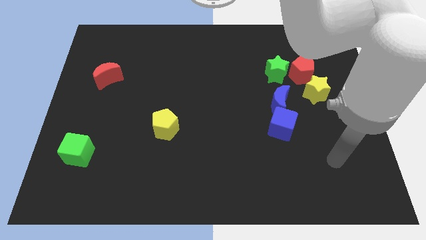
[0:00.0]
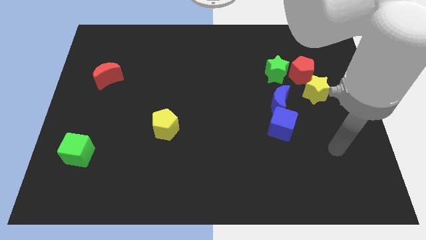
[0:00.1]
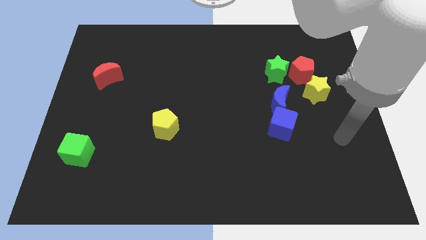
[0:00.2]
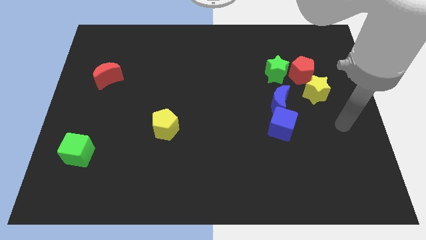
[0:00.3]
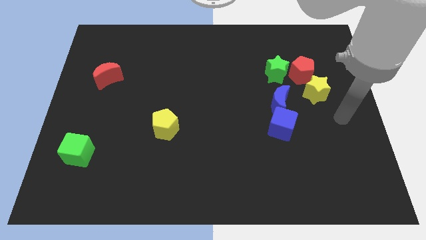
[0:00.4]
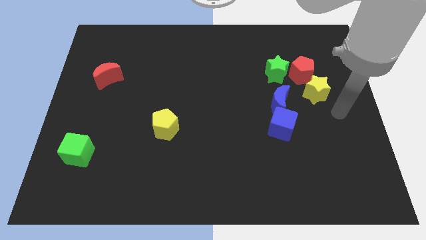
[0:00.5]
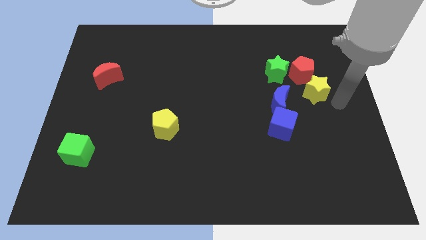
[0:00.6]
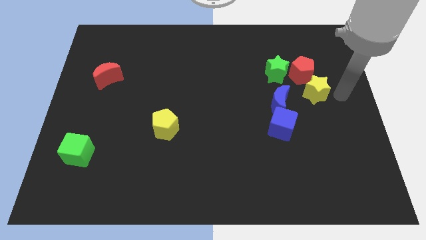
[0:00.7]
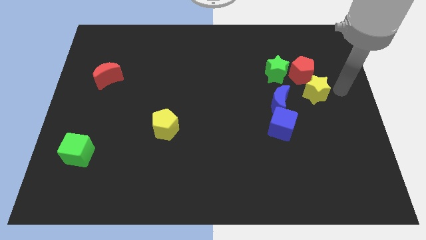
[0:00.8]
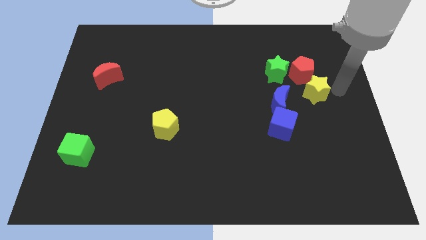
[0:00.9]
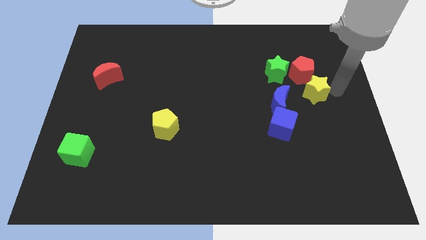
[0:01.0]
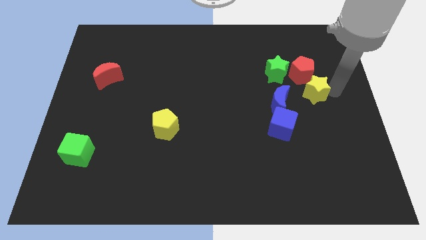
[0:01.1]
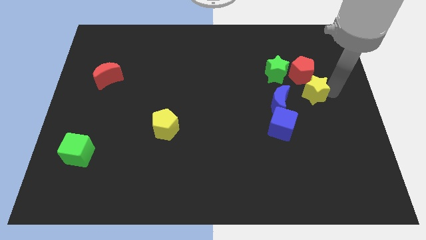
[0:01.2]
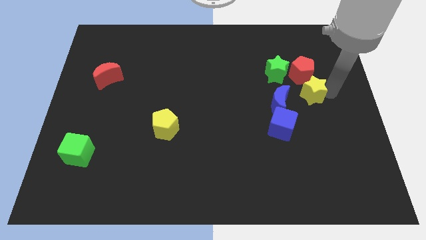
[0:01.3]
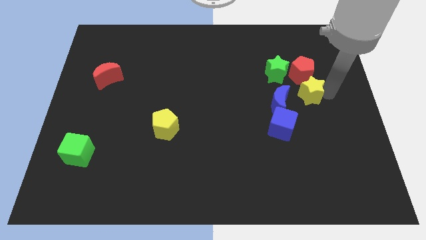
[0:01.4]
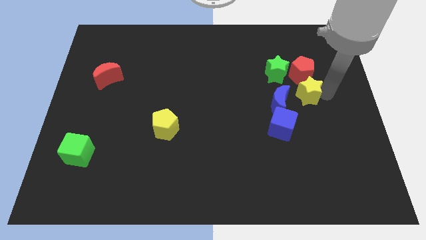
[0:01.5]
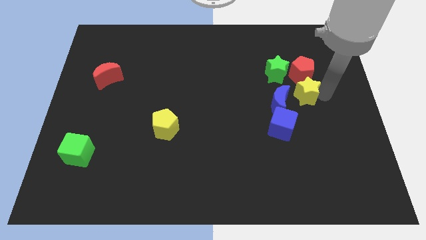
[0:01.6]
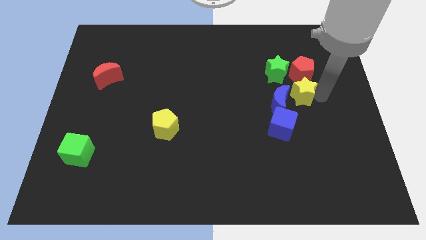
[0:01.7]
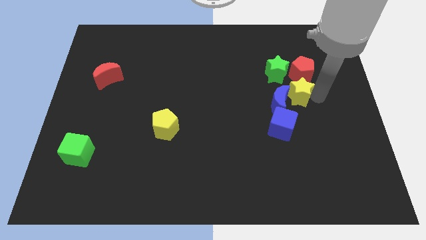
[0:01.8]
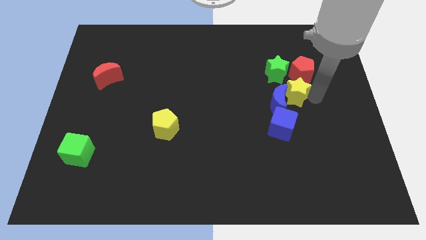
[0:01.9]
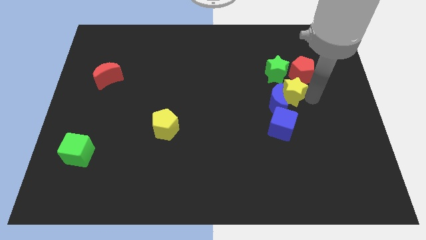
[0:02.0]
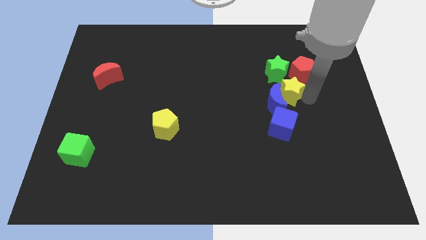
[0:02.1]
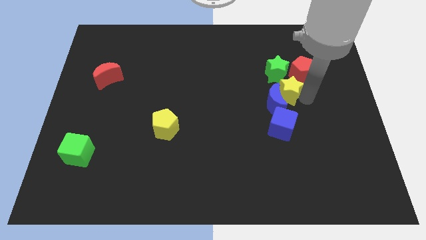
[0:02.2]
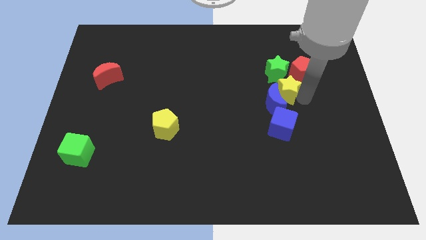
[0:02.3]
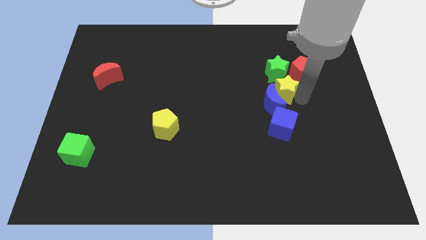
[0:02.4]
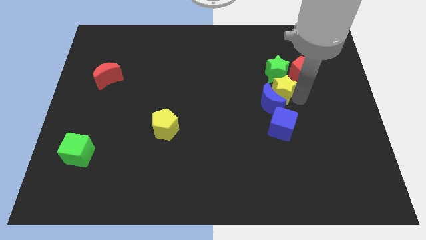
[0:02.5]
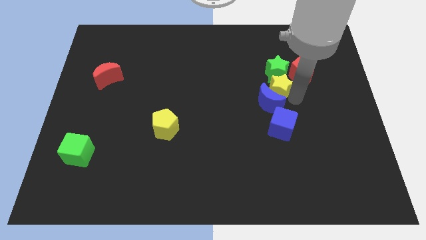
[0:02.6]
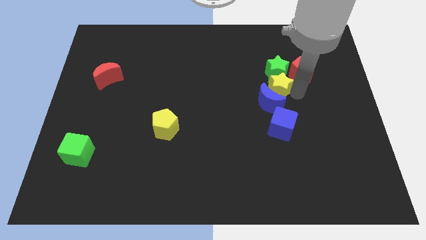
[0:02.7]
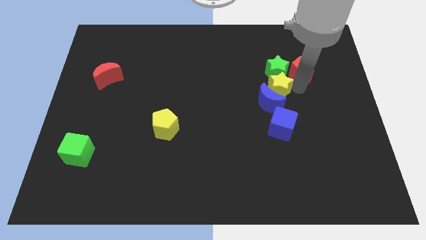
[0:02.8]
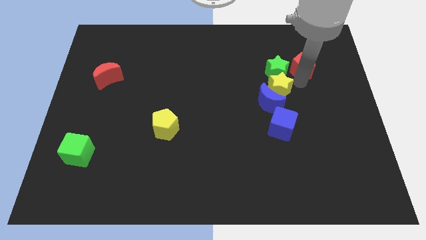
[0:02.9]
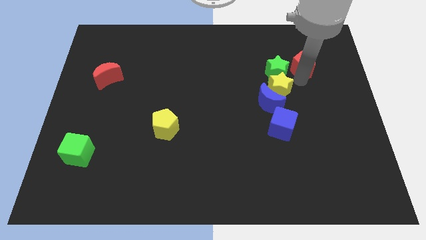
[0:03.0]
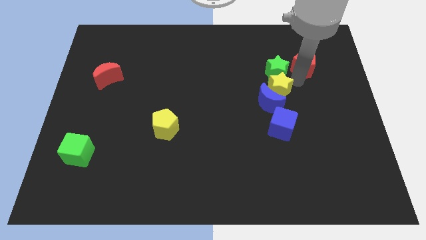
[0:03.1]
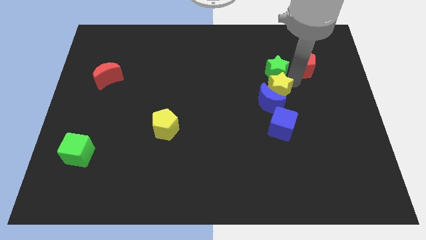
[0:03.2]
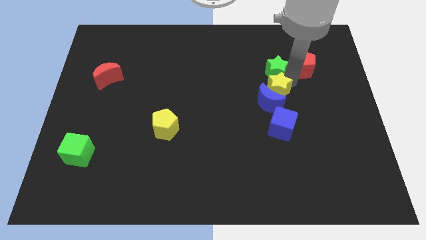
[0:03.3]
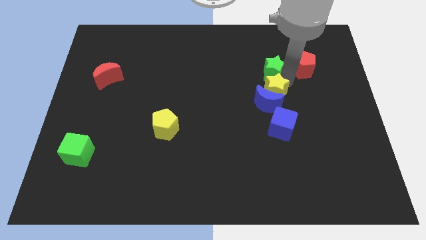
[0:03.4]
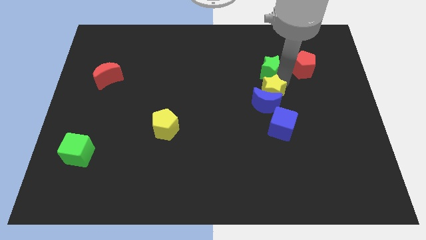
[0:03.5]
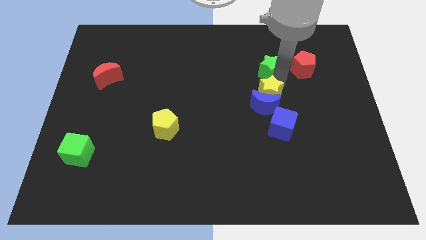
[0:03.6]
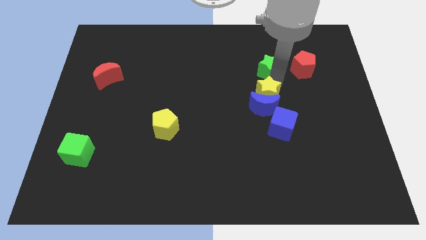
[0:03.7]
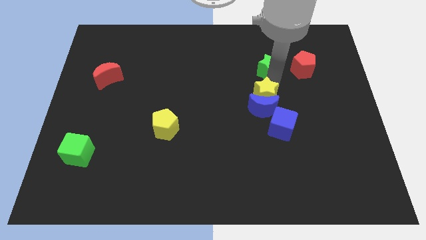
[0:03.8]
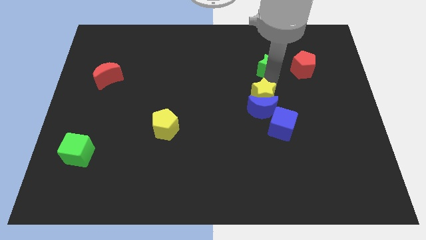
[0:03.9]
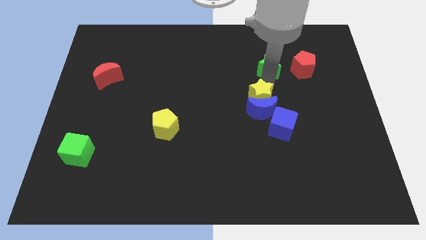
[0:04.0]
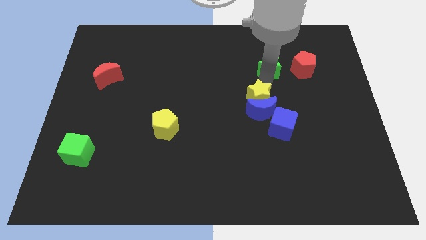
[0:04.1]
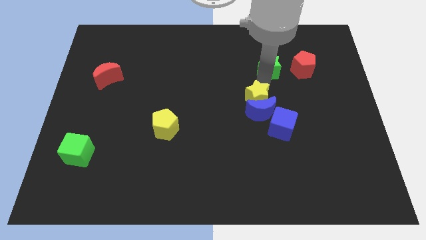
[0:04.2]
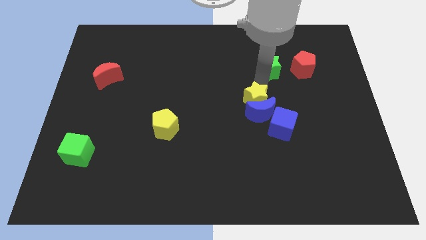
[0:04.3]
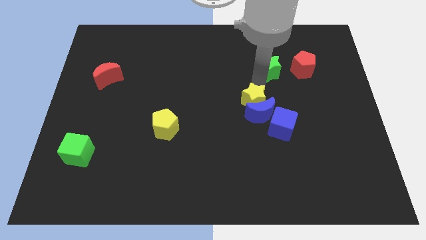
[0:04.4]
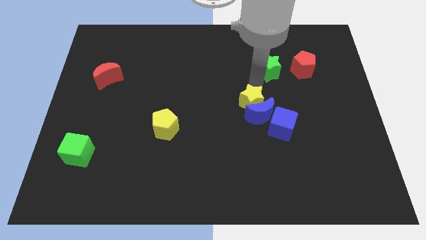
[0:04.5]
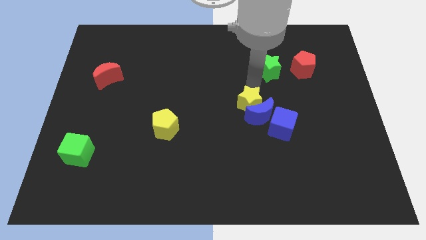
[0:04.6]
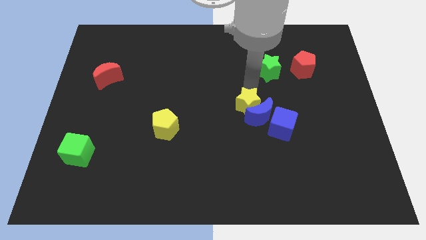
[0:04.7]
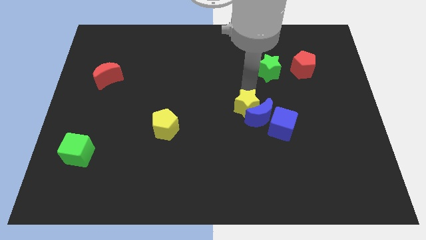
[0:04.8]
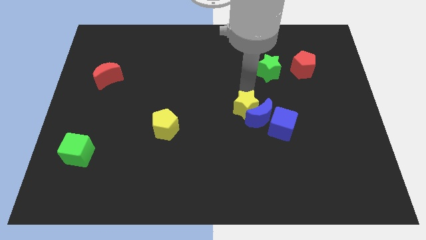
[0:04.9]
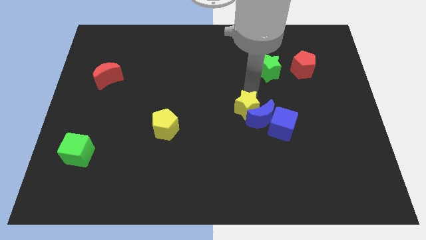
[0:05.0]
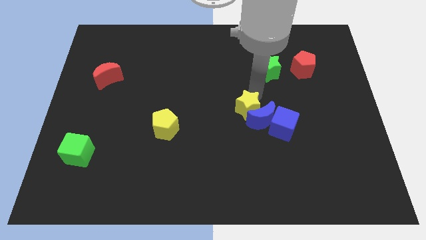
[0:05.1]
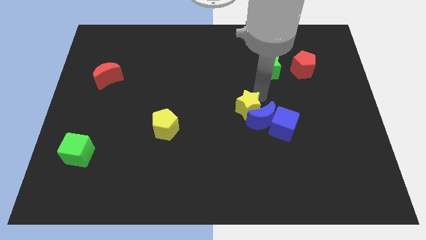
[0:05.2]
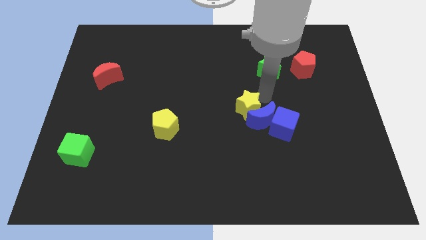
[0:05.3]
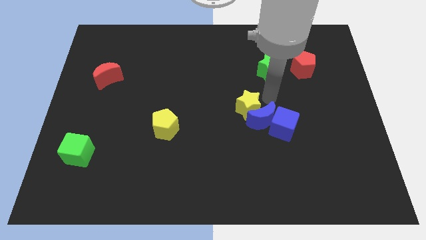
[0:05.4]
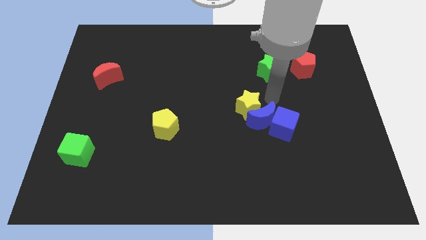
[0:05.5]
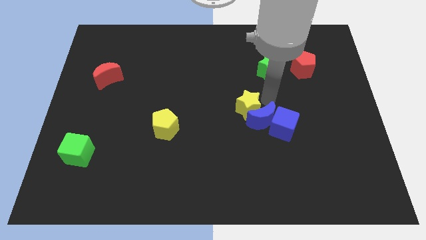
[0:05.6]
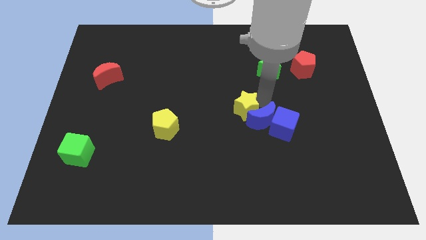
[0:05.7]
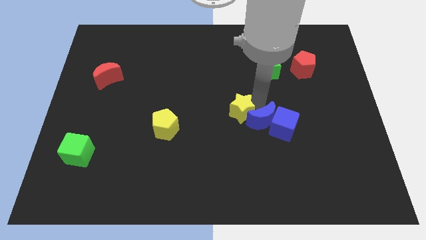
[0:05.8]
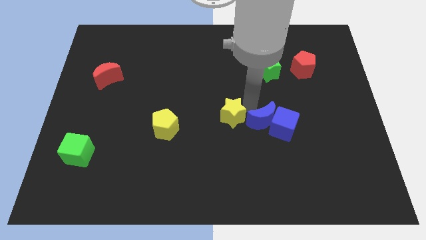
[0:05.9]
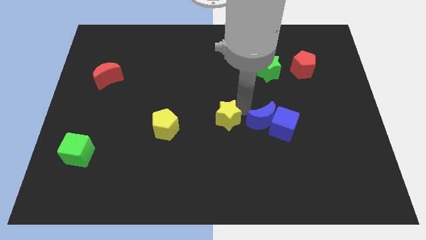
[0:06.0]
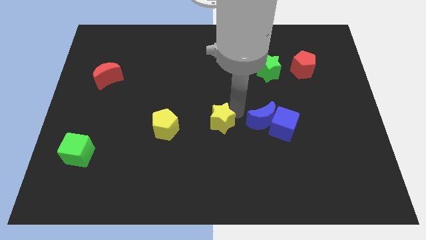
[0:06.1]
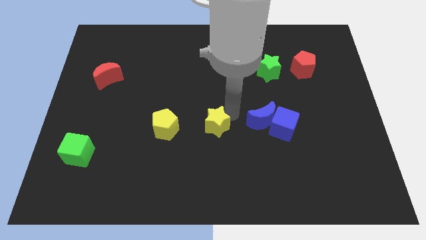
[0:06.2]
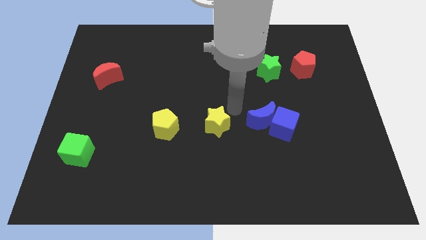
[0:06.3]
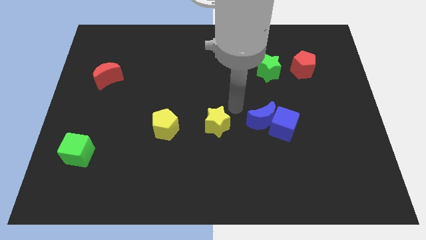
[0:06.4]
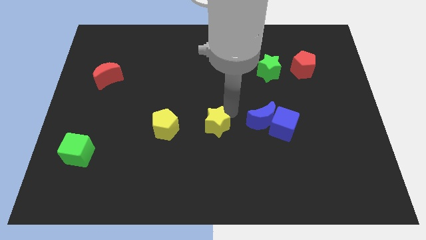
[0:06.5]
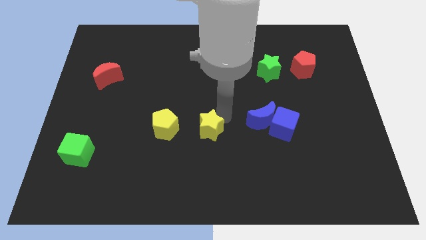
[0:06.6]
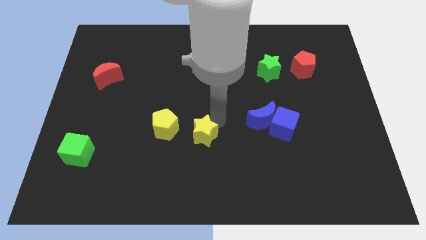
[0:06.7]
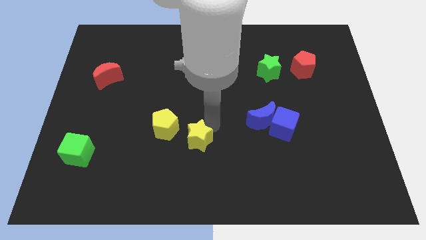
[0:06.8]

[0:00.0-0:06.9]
put the yellow star to the bottom right of the yellow pentagon

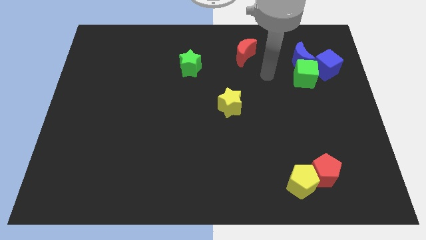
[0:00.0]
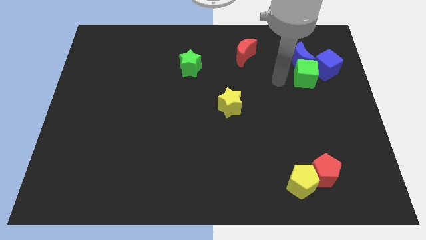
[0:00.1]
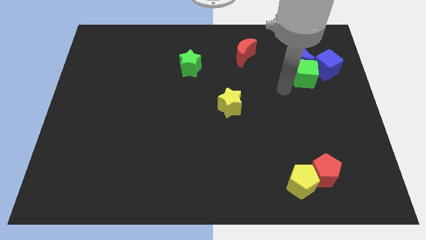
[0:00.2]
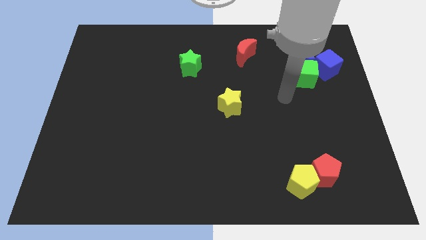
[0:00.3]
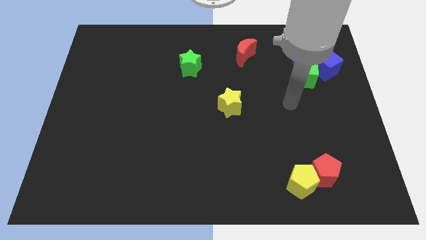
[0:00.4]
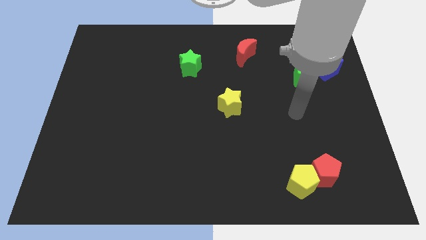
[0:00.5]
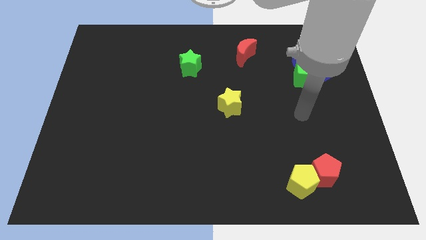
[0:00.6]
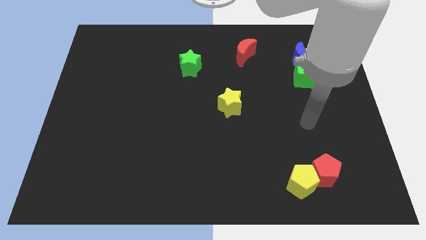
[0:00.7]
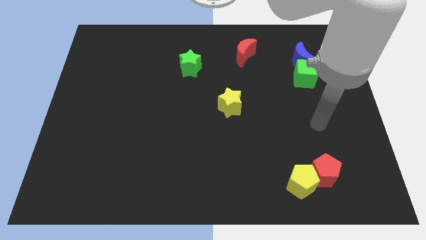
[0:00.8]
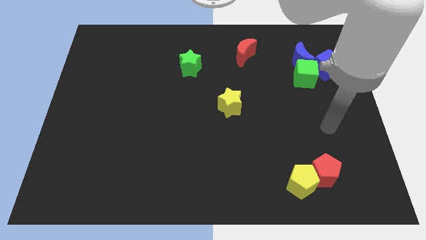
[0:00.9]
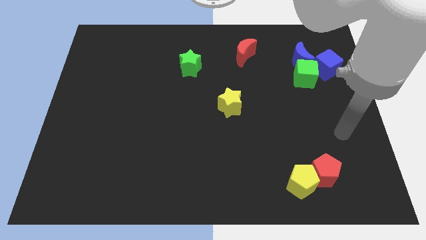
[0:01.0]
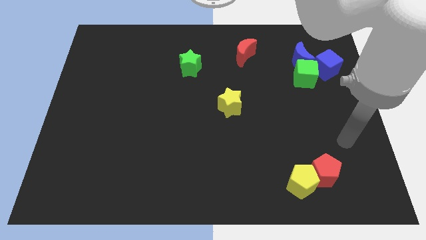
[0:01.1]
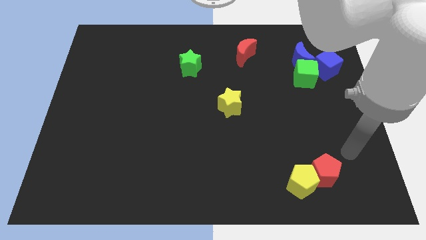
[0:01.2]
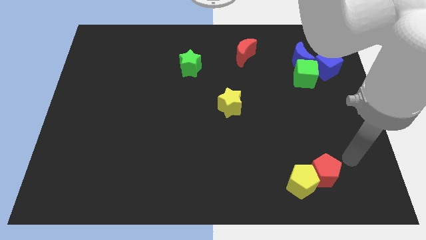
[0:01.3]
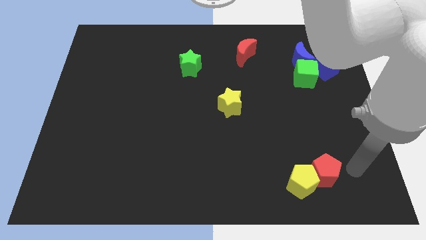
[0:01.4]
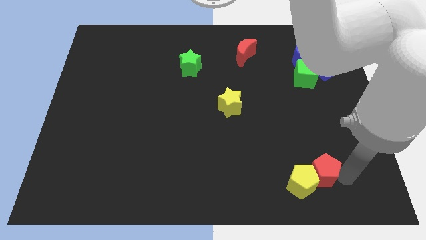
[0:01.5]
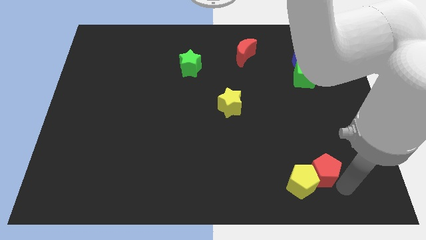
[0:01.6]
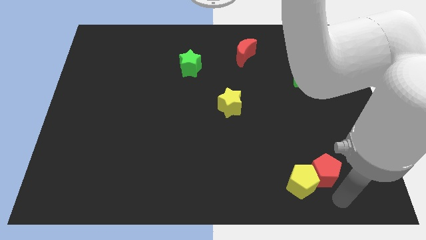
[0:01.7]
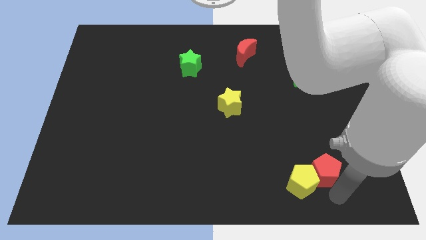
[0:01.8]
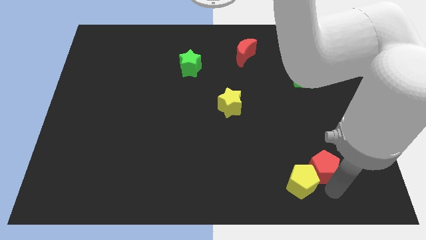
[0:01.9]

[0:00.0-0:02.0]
put the red pentagon to the top side of the yellow pentagon
